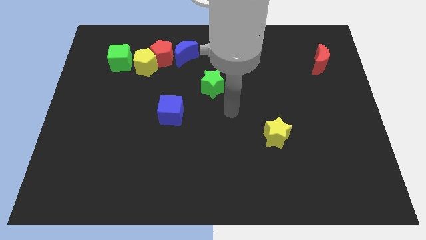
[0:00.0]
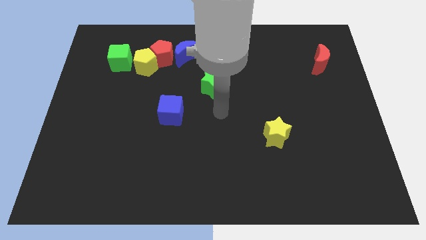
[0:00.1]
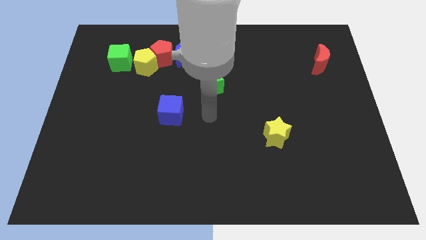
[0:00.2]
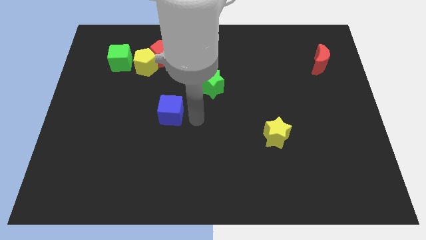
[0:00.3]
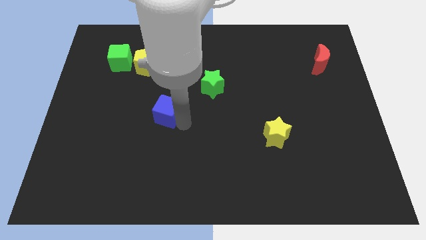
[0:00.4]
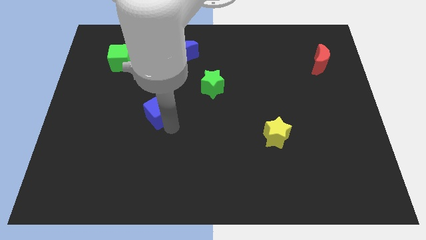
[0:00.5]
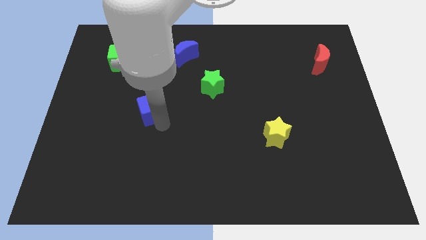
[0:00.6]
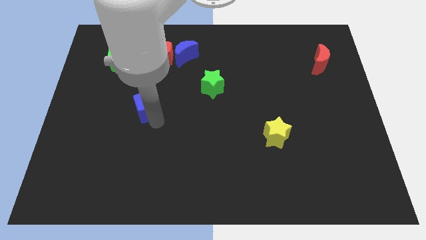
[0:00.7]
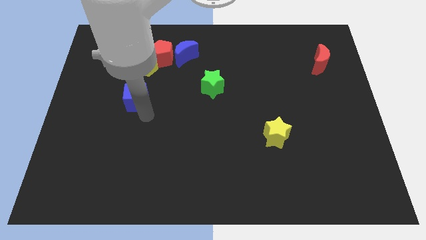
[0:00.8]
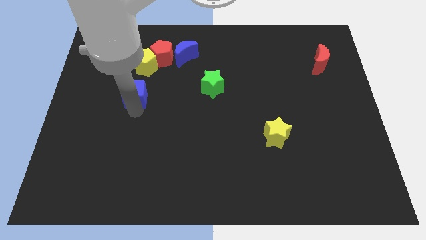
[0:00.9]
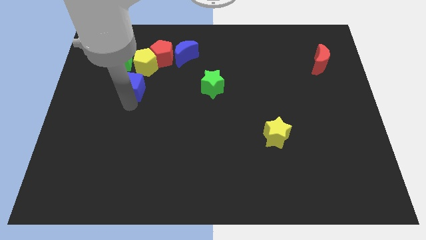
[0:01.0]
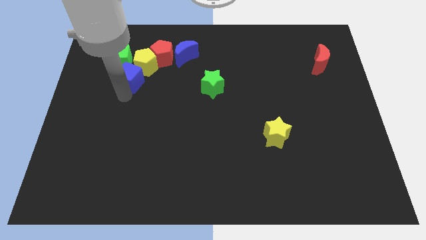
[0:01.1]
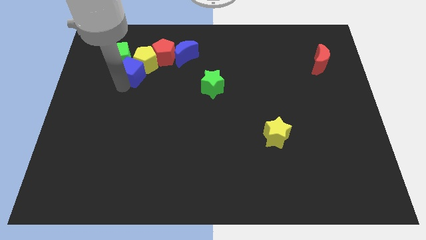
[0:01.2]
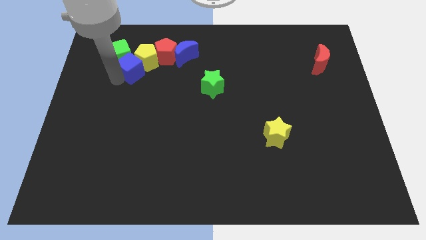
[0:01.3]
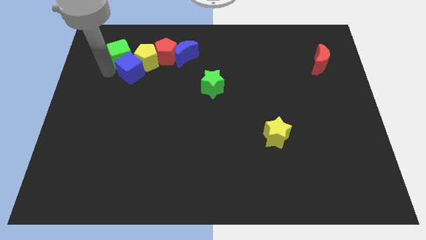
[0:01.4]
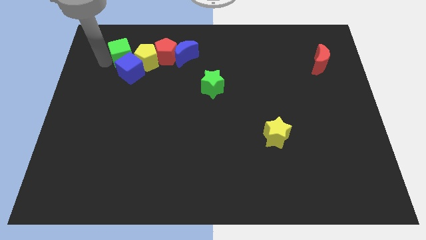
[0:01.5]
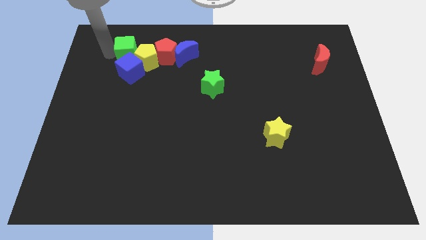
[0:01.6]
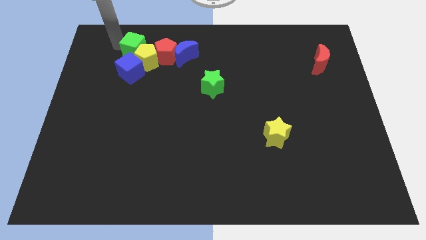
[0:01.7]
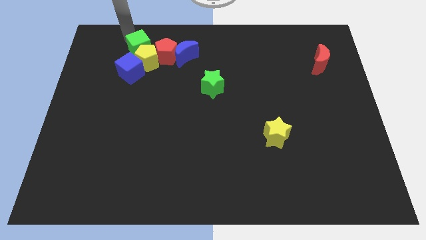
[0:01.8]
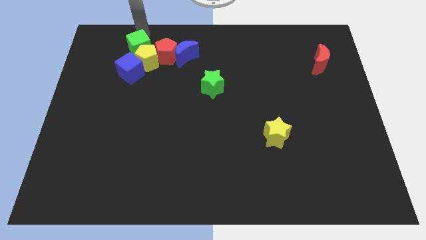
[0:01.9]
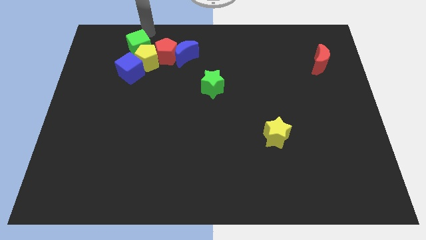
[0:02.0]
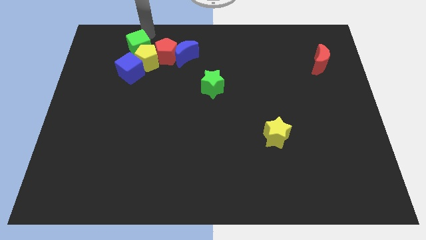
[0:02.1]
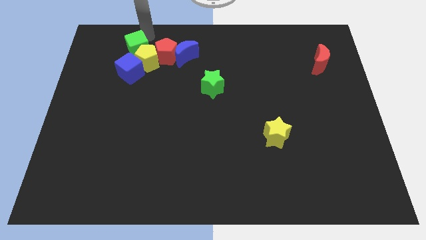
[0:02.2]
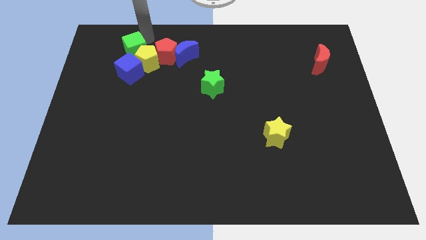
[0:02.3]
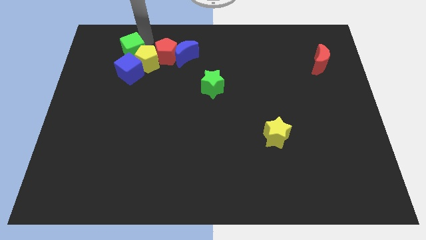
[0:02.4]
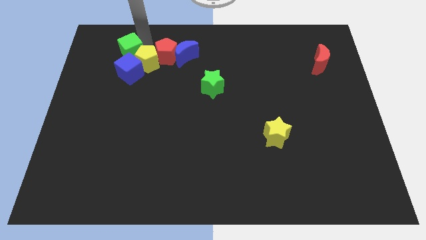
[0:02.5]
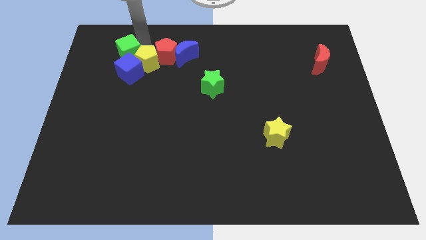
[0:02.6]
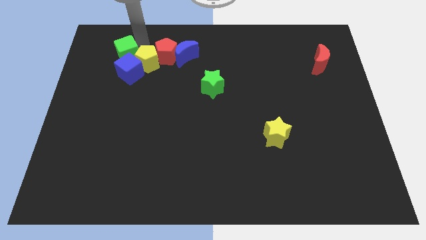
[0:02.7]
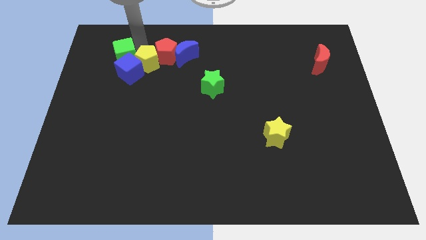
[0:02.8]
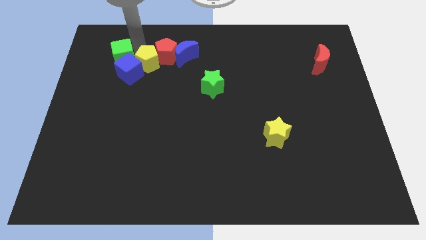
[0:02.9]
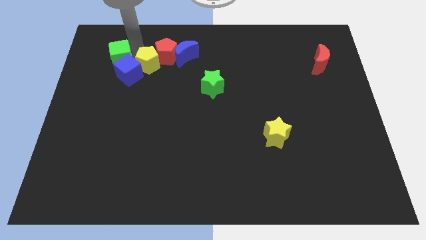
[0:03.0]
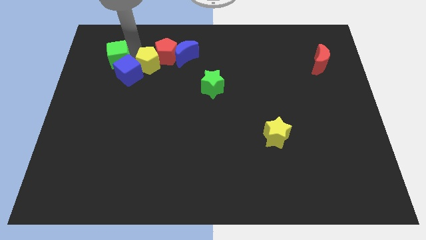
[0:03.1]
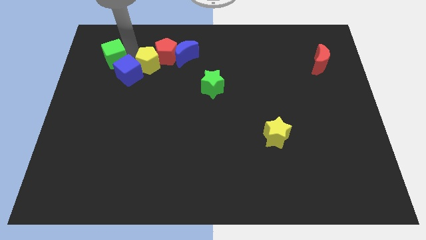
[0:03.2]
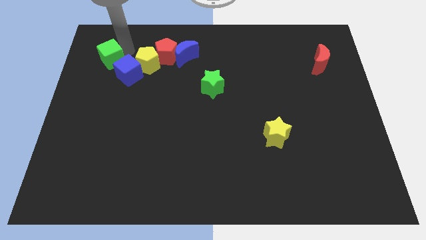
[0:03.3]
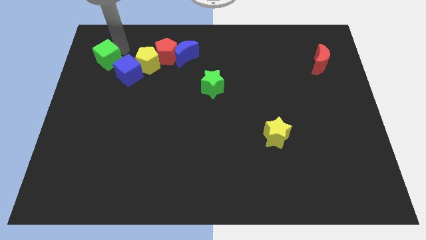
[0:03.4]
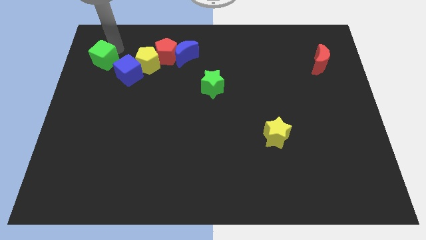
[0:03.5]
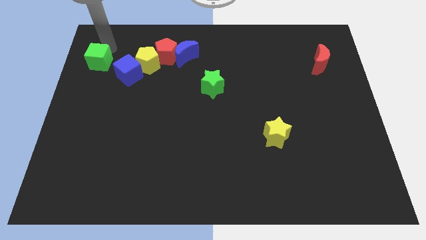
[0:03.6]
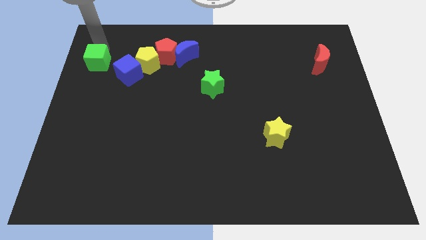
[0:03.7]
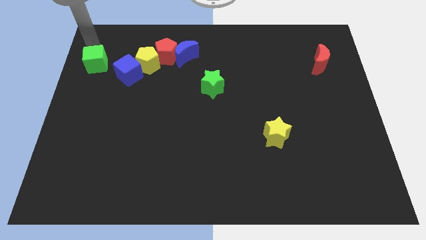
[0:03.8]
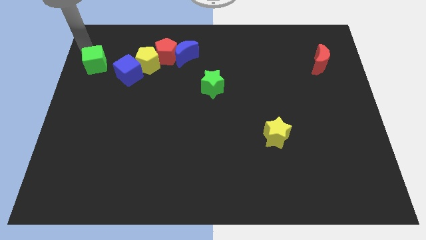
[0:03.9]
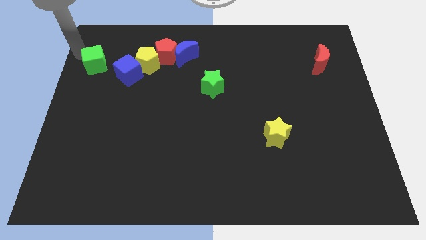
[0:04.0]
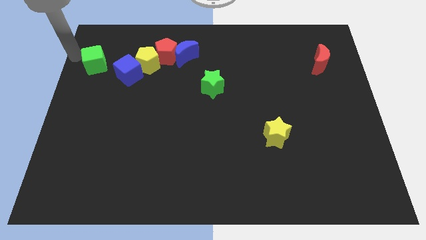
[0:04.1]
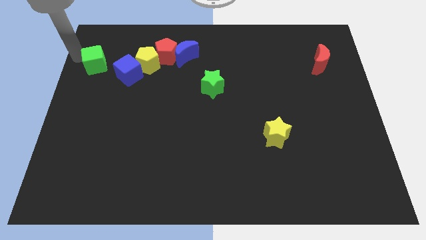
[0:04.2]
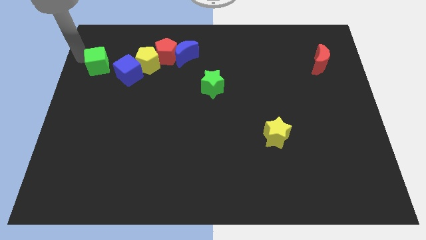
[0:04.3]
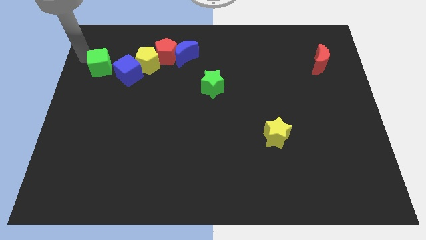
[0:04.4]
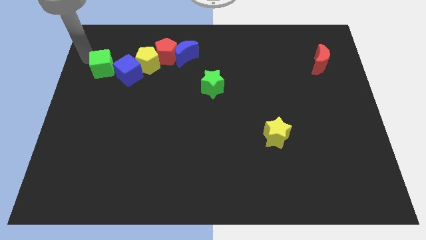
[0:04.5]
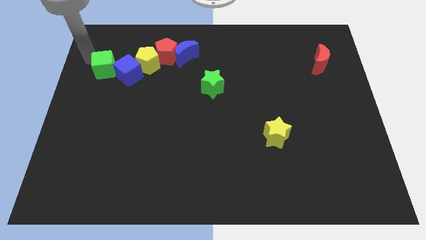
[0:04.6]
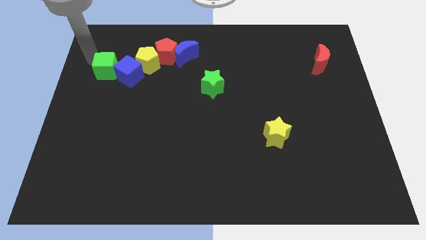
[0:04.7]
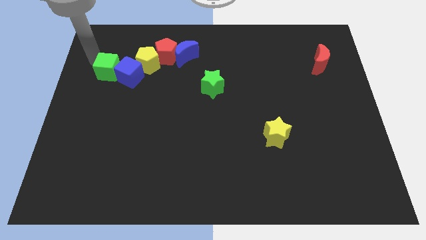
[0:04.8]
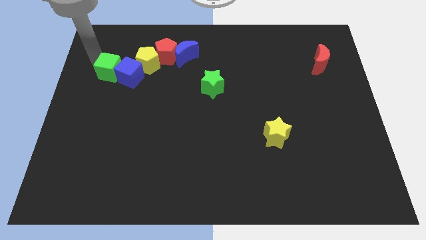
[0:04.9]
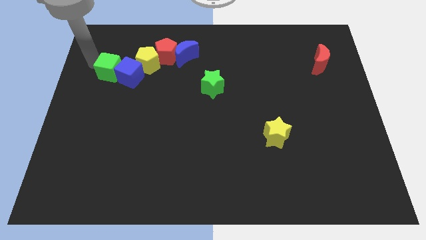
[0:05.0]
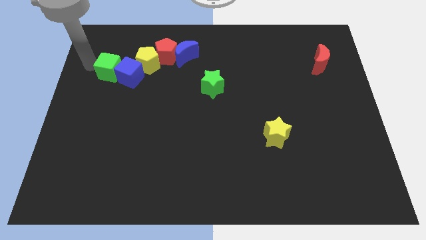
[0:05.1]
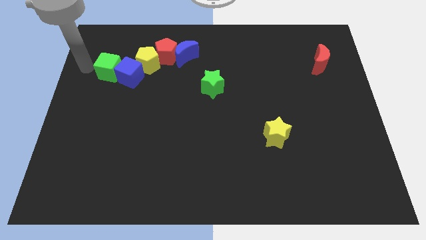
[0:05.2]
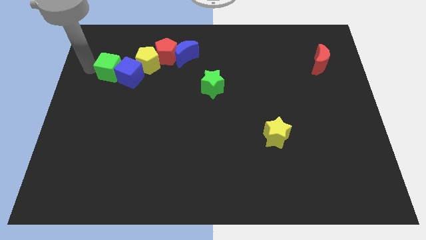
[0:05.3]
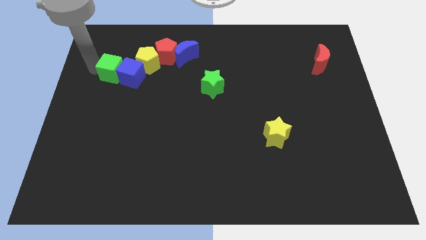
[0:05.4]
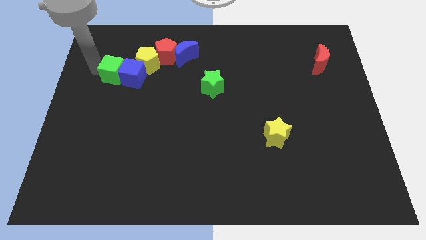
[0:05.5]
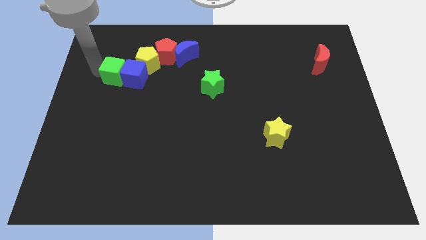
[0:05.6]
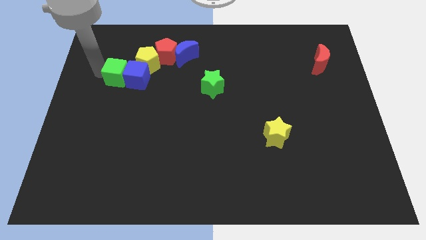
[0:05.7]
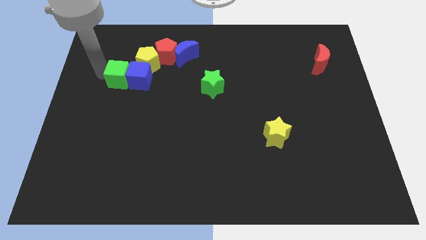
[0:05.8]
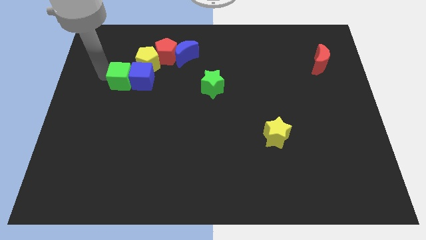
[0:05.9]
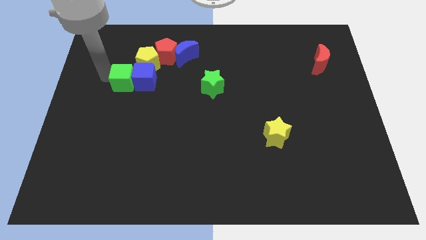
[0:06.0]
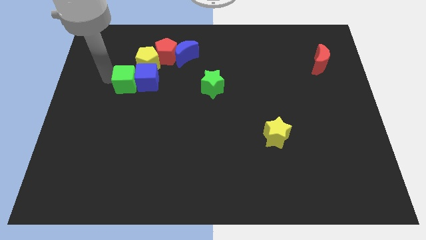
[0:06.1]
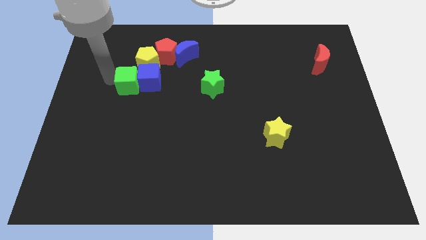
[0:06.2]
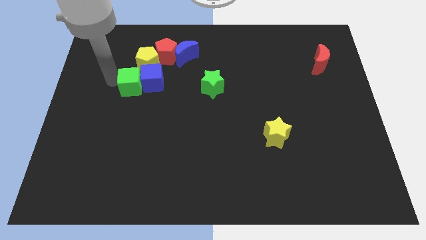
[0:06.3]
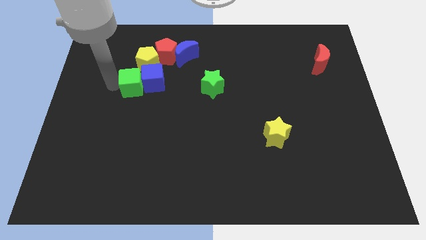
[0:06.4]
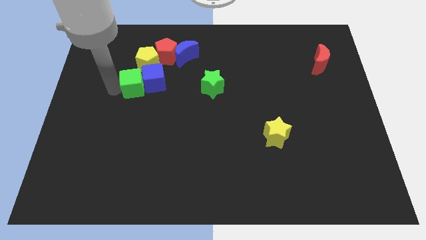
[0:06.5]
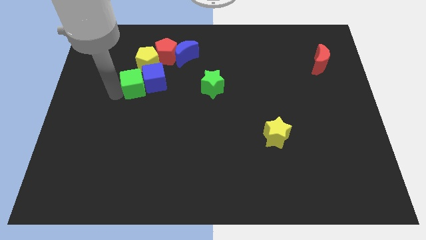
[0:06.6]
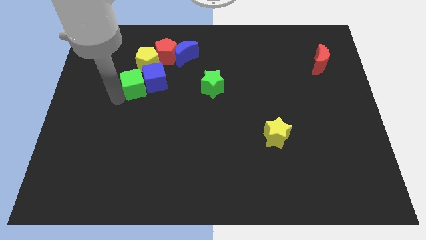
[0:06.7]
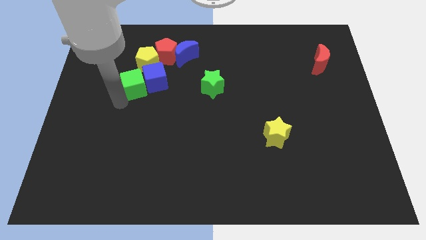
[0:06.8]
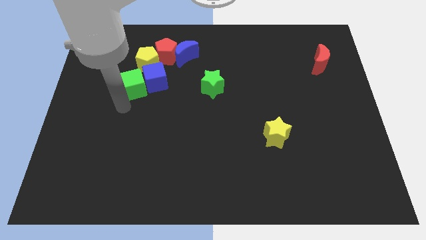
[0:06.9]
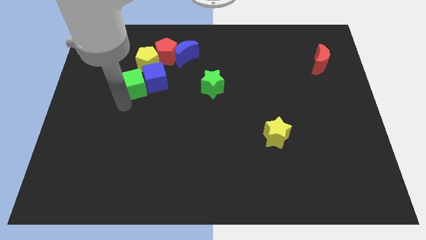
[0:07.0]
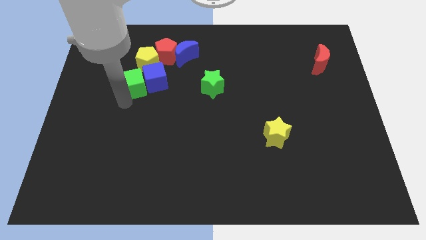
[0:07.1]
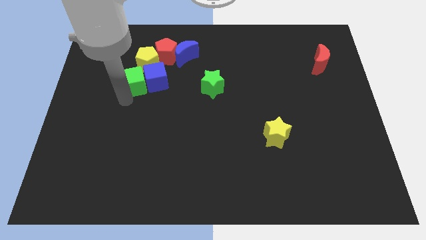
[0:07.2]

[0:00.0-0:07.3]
slide the green cube to the bottom left of the red pentagon
